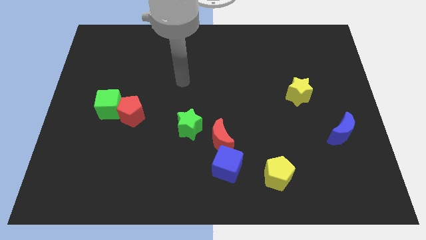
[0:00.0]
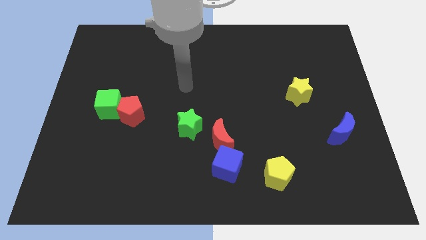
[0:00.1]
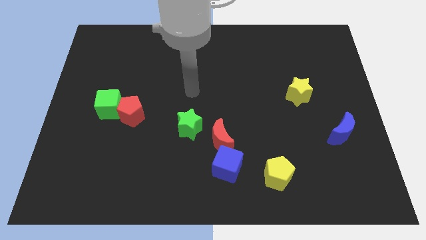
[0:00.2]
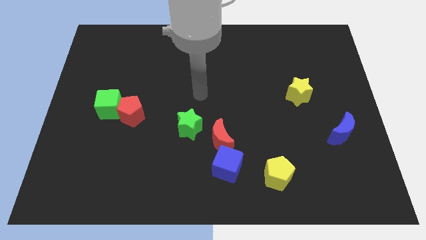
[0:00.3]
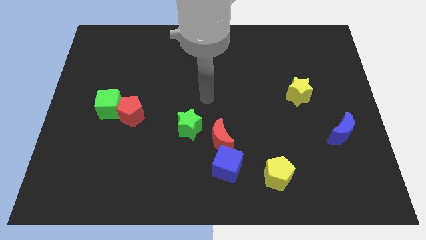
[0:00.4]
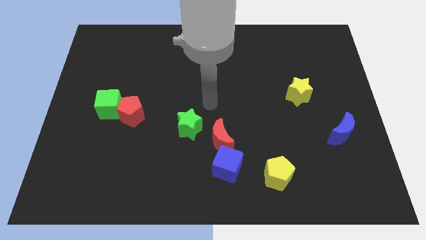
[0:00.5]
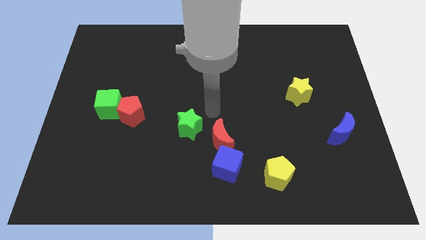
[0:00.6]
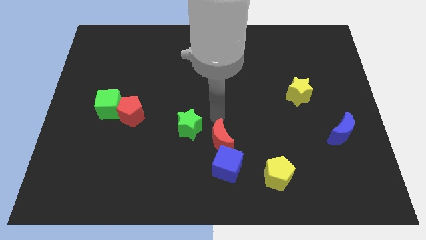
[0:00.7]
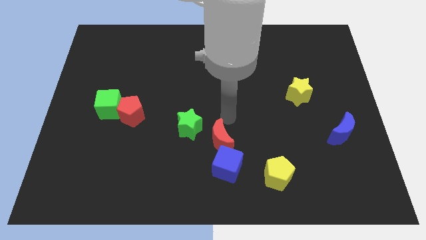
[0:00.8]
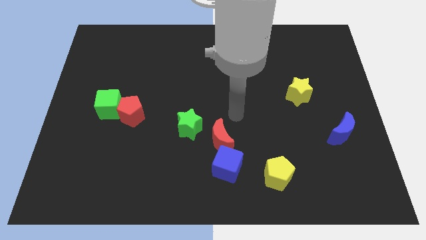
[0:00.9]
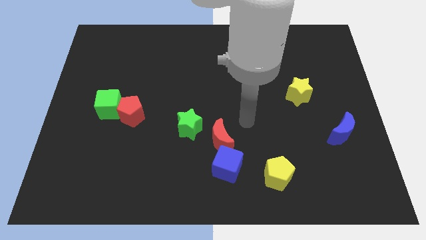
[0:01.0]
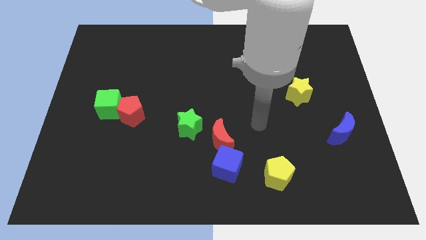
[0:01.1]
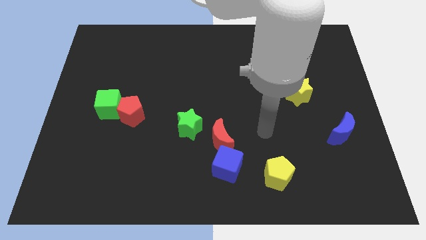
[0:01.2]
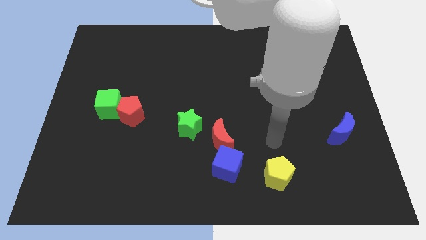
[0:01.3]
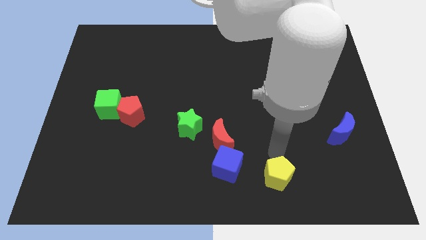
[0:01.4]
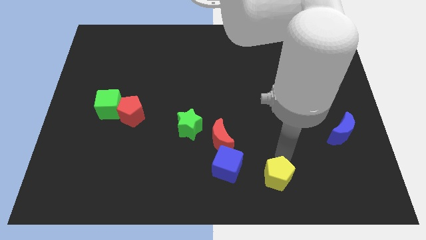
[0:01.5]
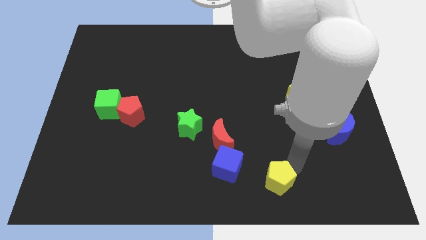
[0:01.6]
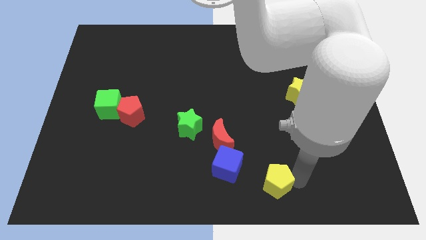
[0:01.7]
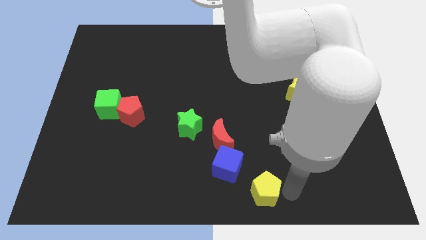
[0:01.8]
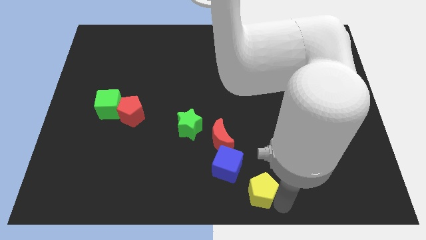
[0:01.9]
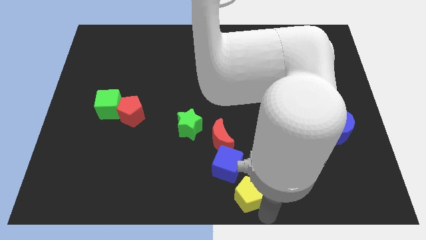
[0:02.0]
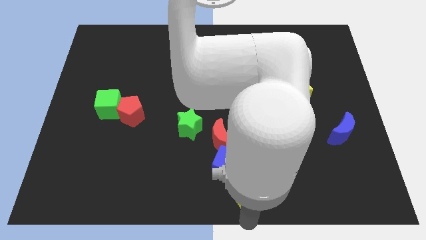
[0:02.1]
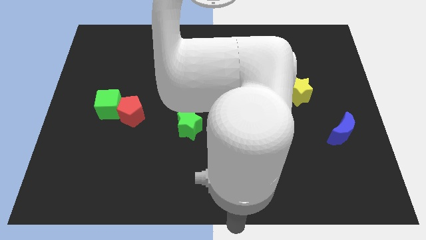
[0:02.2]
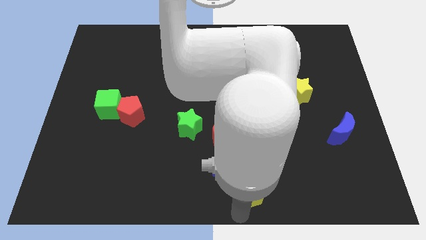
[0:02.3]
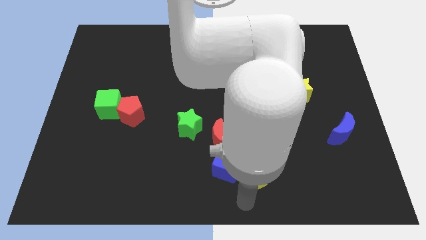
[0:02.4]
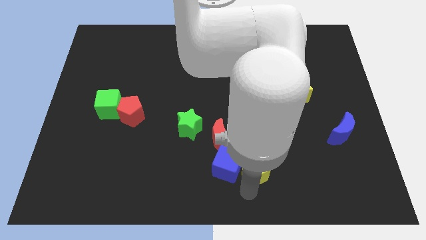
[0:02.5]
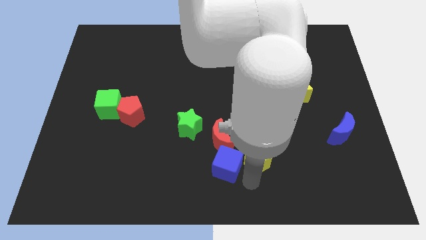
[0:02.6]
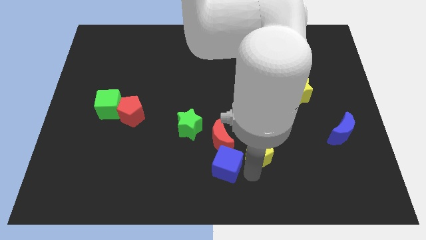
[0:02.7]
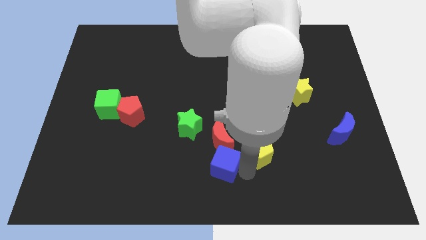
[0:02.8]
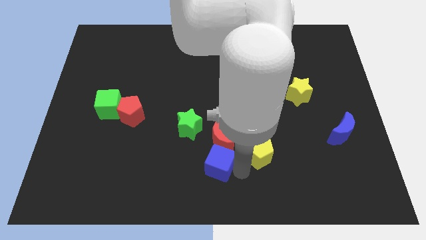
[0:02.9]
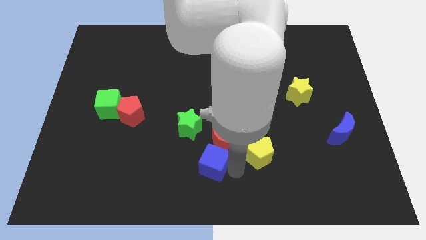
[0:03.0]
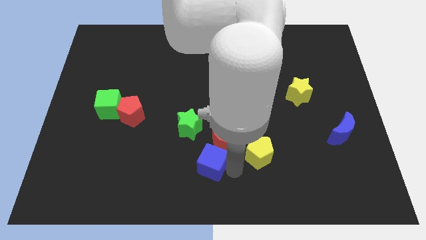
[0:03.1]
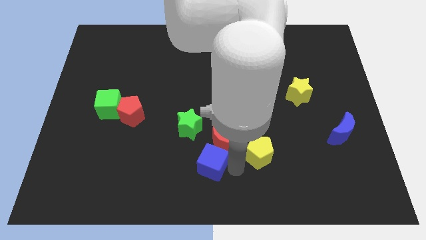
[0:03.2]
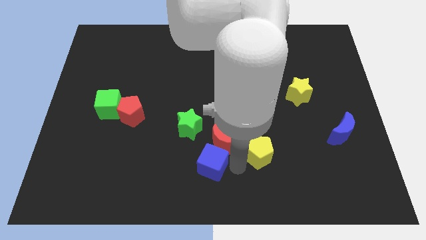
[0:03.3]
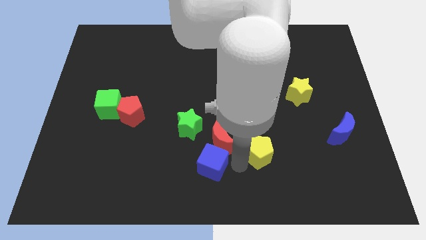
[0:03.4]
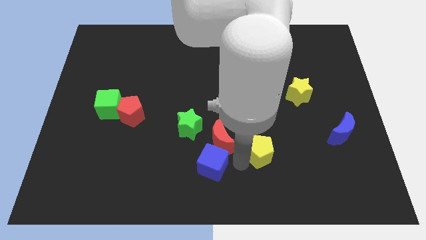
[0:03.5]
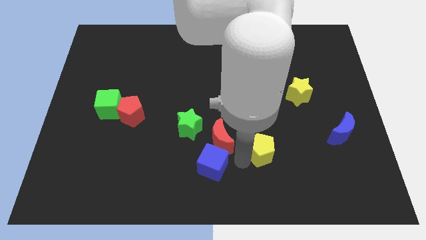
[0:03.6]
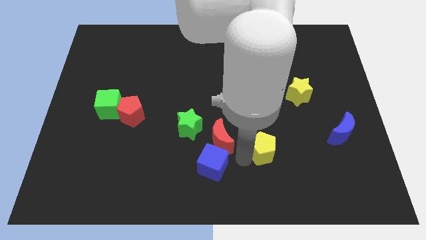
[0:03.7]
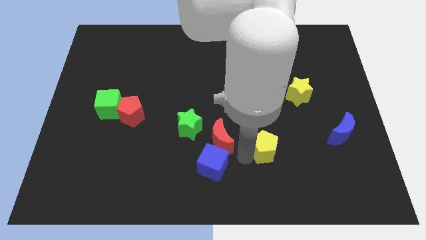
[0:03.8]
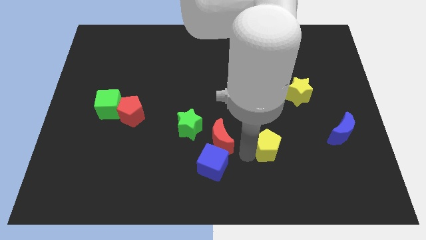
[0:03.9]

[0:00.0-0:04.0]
slightly slide the yellow pentagon upwards

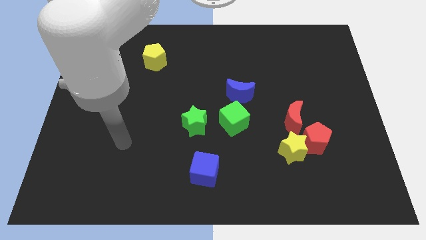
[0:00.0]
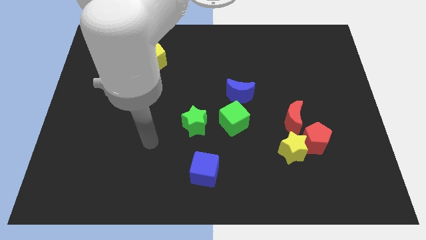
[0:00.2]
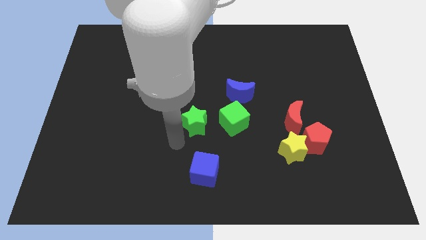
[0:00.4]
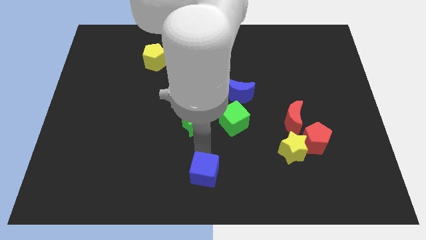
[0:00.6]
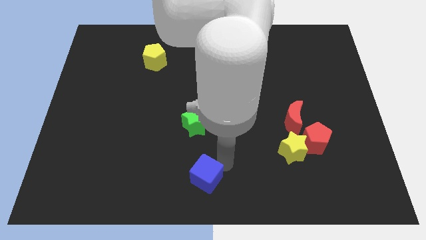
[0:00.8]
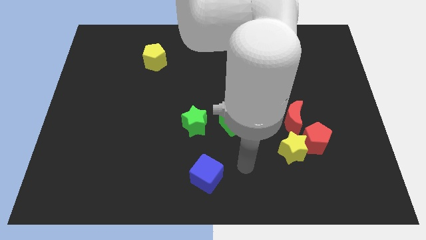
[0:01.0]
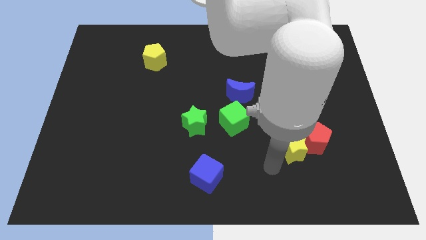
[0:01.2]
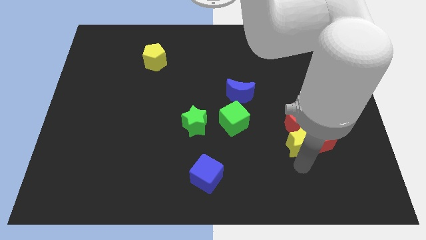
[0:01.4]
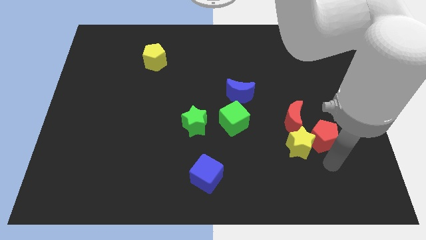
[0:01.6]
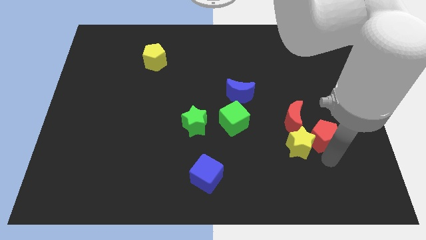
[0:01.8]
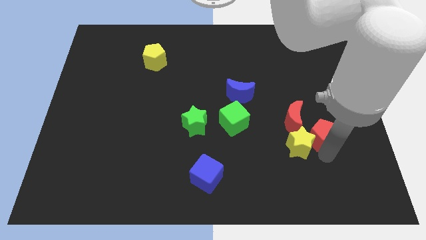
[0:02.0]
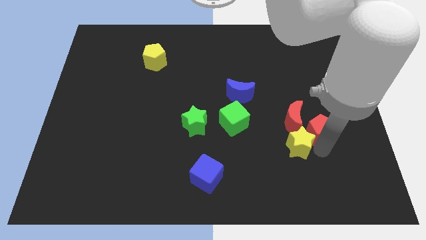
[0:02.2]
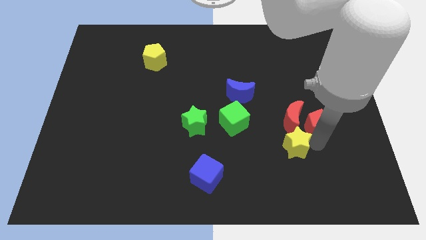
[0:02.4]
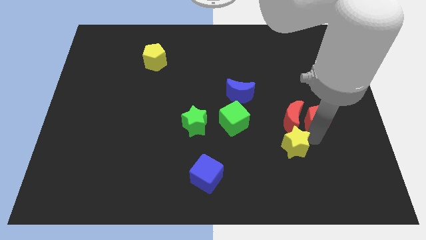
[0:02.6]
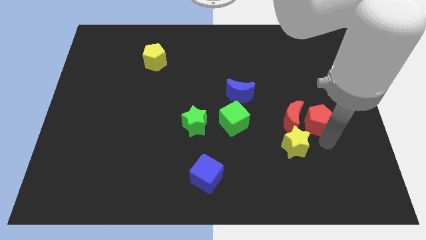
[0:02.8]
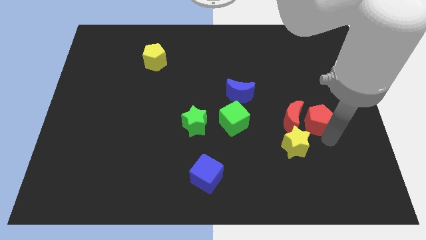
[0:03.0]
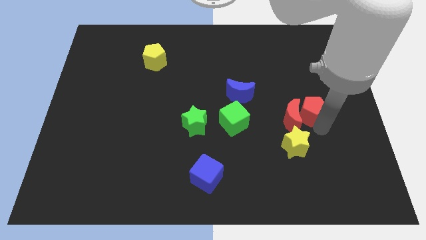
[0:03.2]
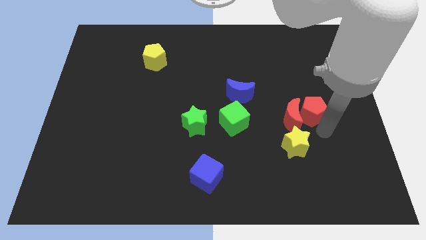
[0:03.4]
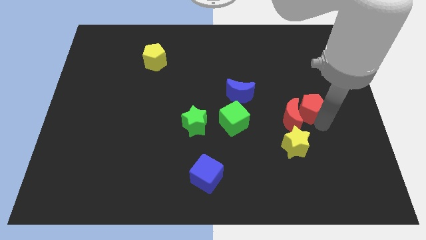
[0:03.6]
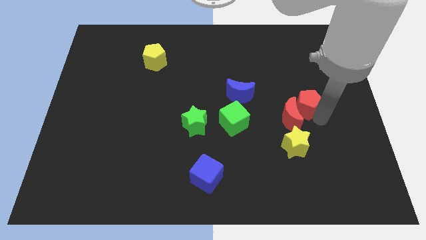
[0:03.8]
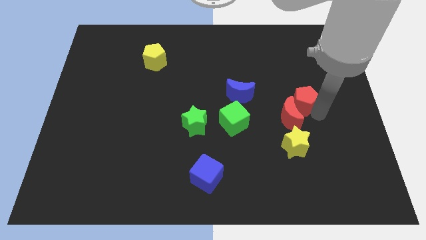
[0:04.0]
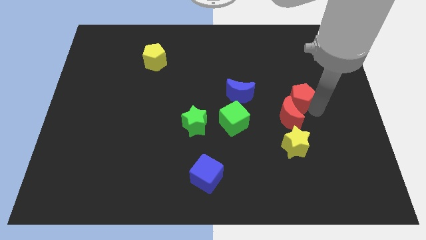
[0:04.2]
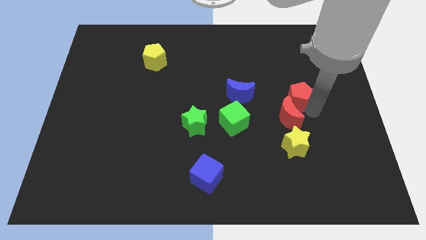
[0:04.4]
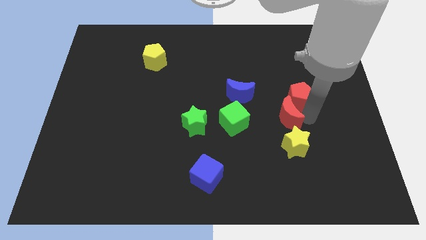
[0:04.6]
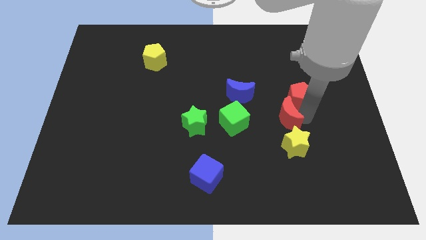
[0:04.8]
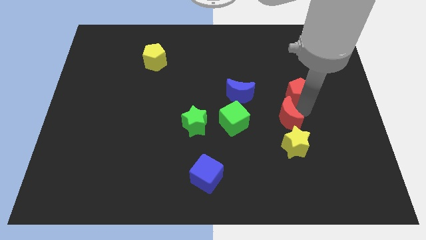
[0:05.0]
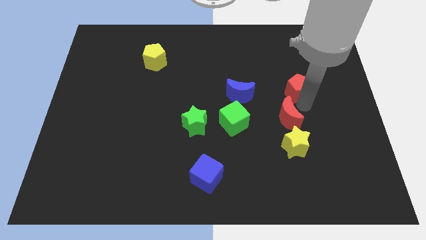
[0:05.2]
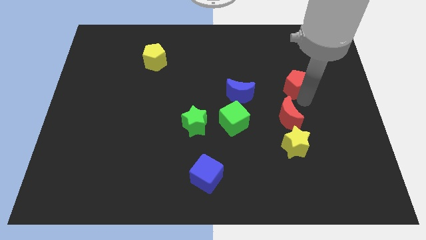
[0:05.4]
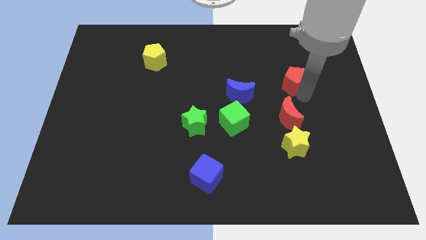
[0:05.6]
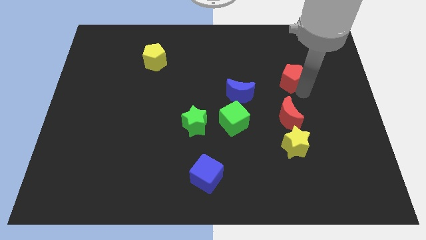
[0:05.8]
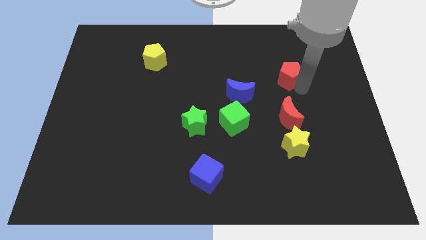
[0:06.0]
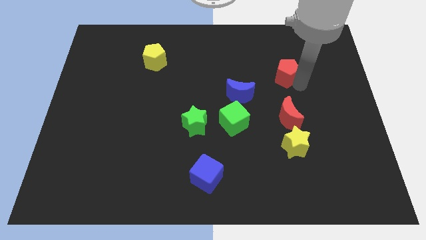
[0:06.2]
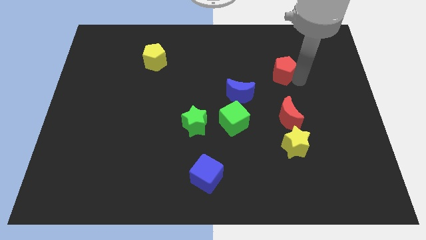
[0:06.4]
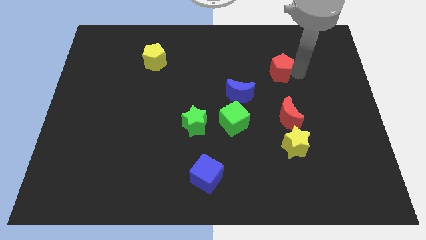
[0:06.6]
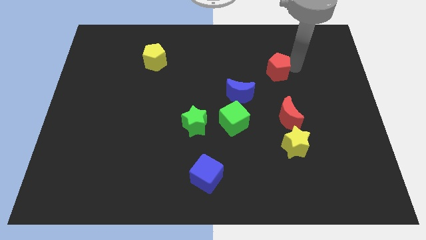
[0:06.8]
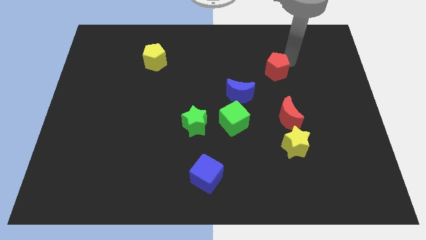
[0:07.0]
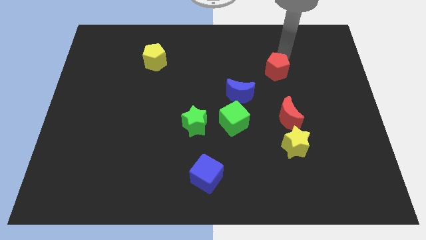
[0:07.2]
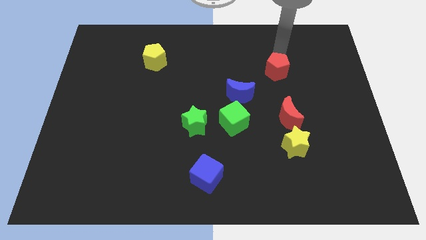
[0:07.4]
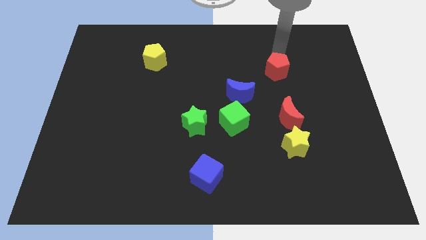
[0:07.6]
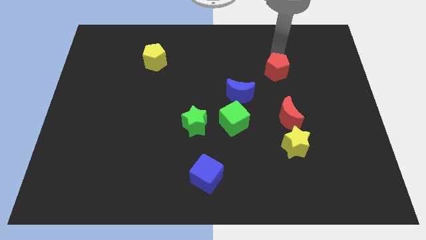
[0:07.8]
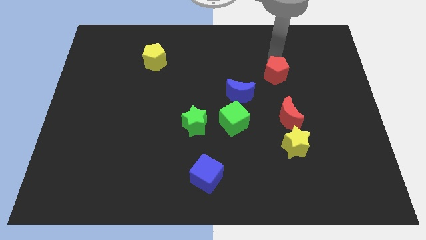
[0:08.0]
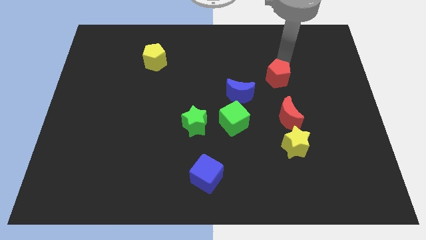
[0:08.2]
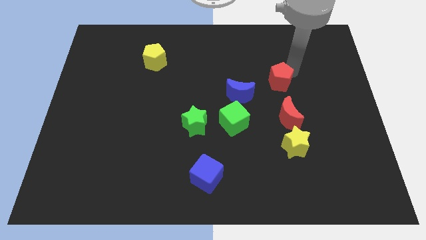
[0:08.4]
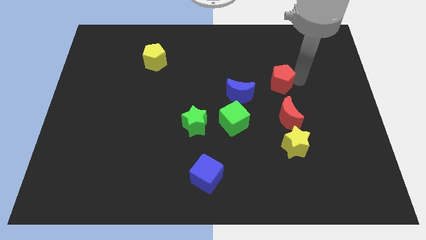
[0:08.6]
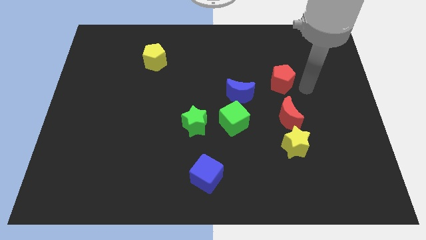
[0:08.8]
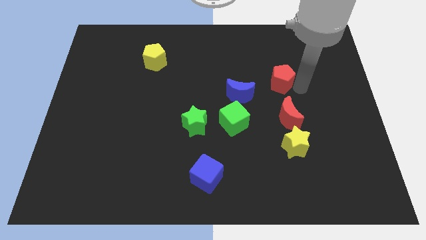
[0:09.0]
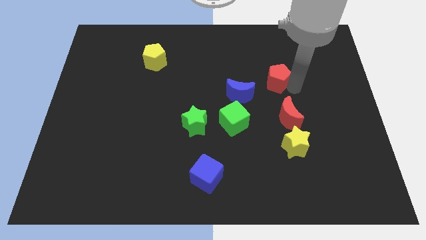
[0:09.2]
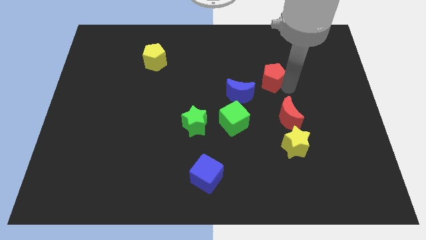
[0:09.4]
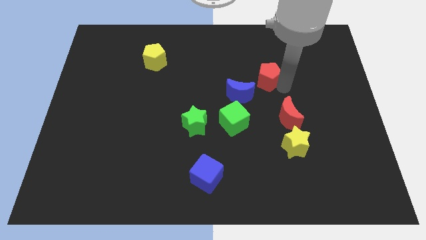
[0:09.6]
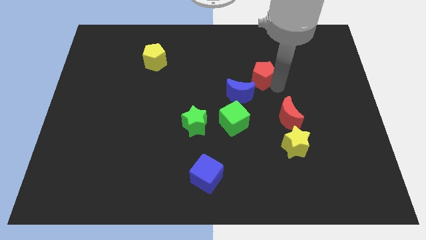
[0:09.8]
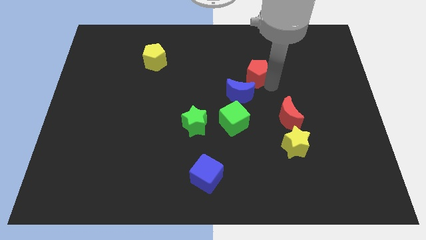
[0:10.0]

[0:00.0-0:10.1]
slide the red pentagon up and left
